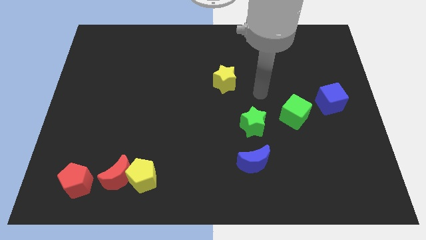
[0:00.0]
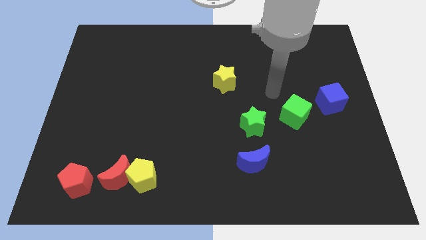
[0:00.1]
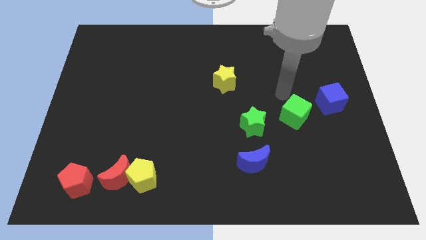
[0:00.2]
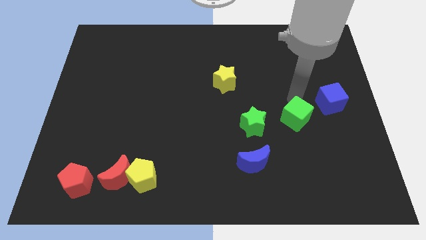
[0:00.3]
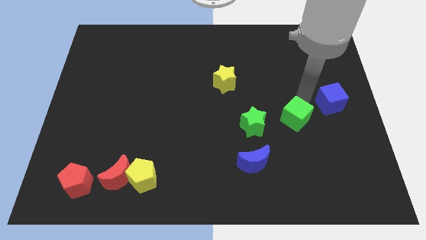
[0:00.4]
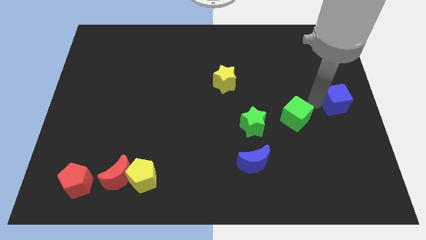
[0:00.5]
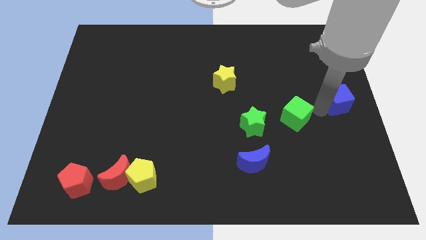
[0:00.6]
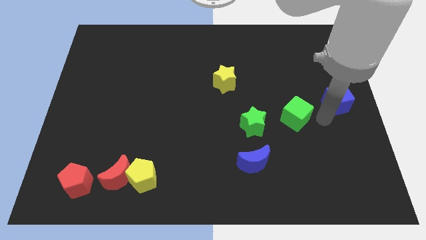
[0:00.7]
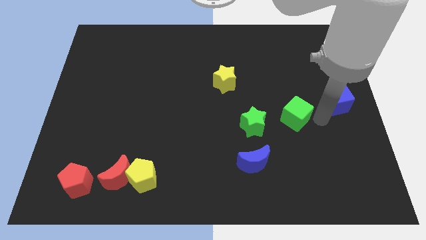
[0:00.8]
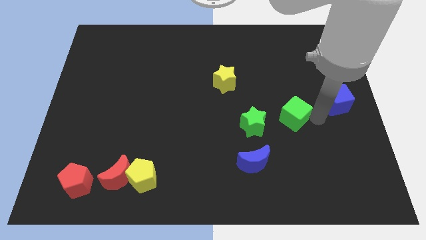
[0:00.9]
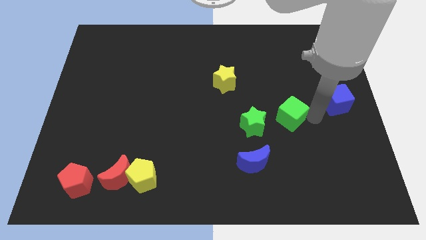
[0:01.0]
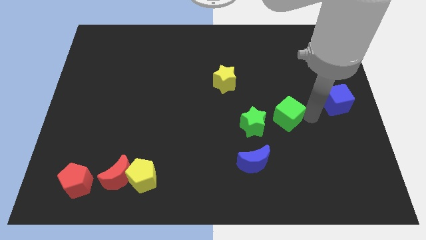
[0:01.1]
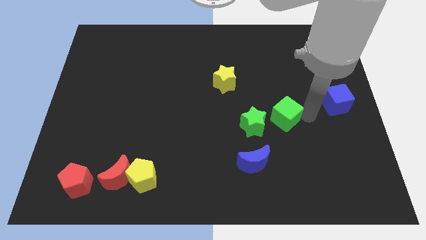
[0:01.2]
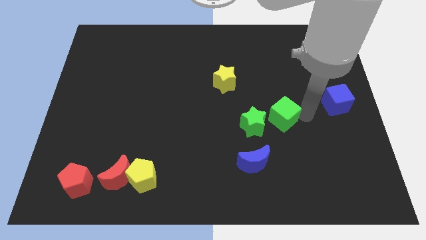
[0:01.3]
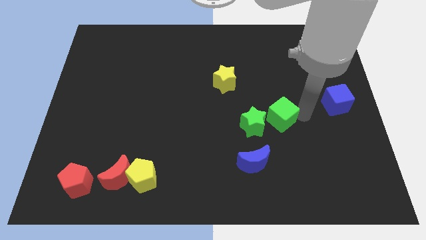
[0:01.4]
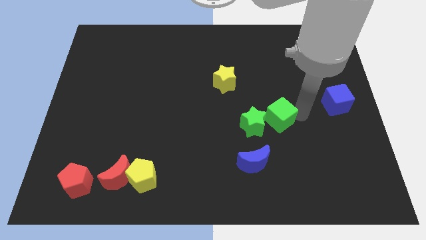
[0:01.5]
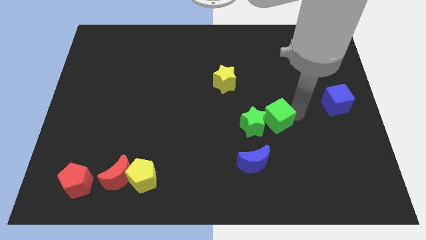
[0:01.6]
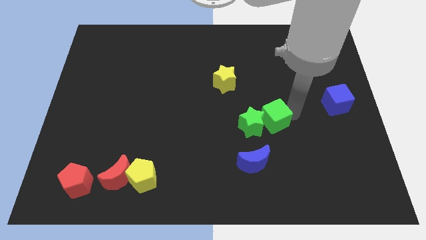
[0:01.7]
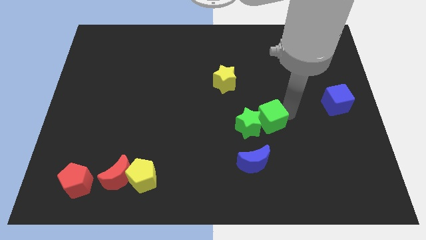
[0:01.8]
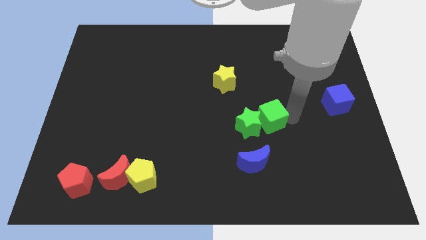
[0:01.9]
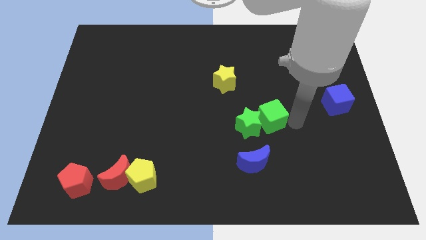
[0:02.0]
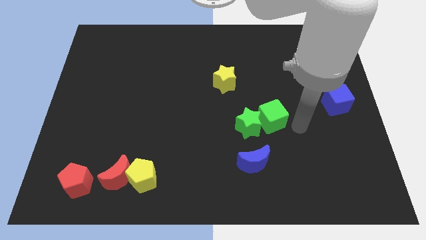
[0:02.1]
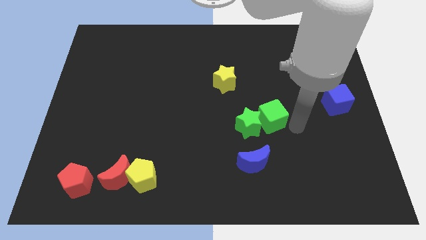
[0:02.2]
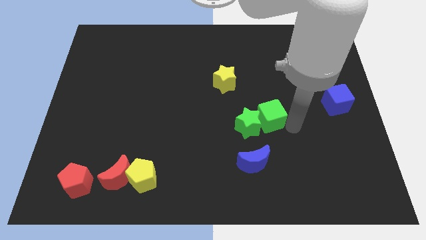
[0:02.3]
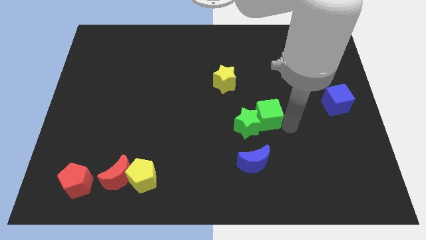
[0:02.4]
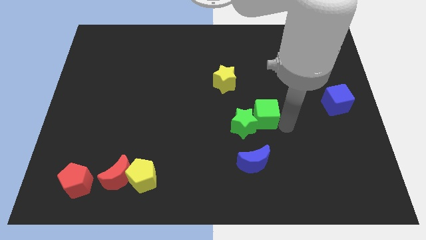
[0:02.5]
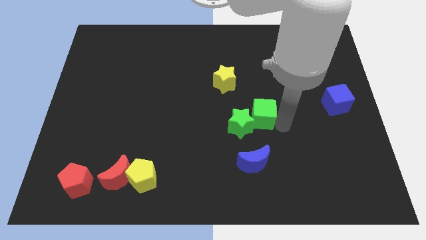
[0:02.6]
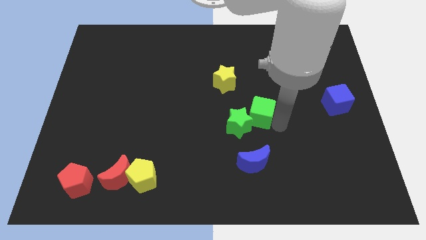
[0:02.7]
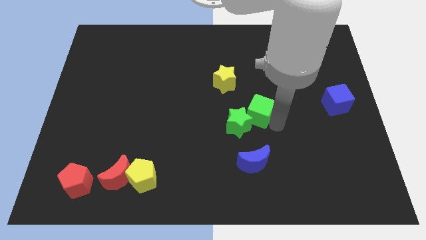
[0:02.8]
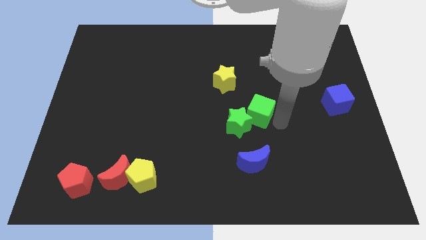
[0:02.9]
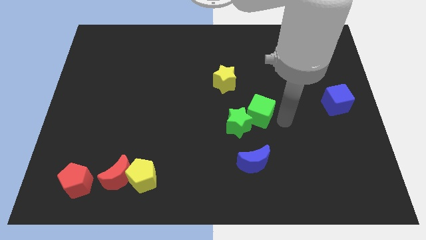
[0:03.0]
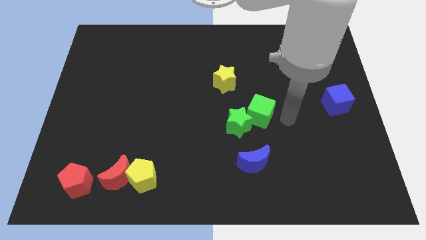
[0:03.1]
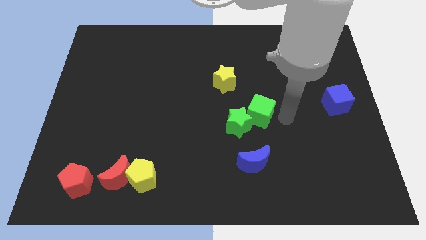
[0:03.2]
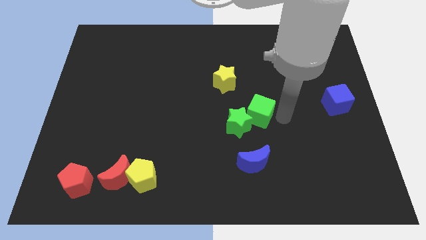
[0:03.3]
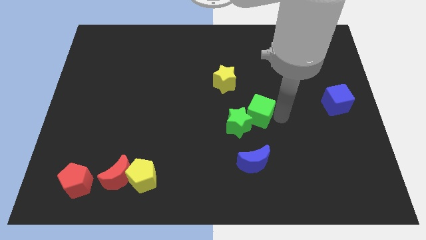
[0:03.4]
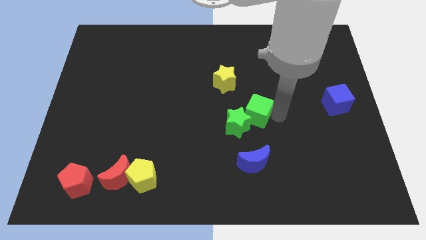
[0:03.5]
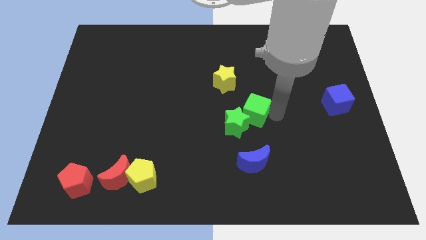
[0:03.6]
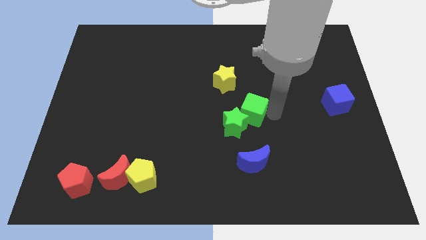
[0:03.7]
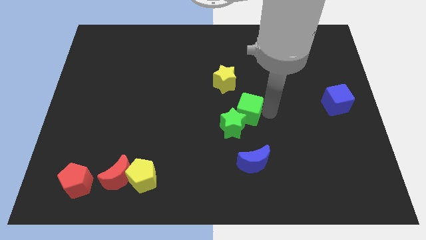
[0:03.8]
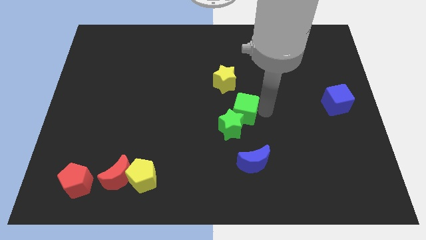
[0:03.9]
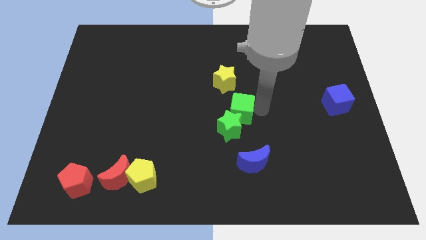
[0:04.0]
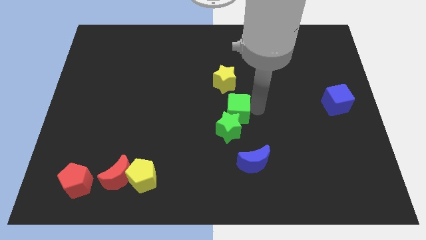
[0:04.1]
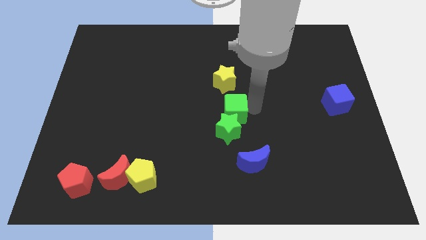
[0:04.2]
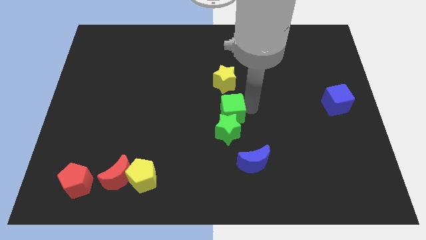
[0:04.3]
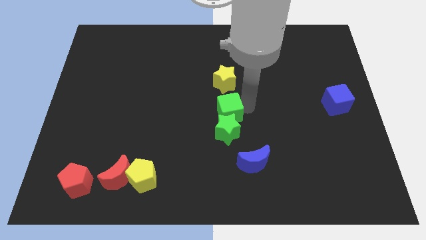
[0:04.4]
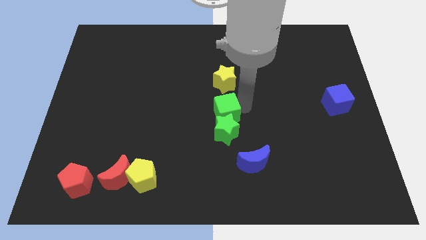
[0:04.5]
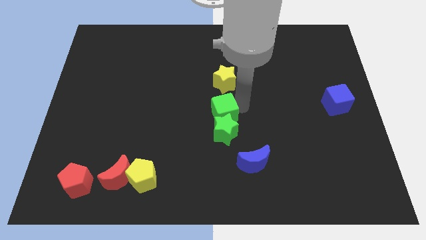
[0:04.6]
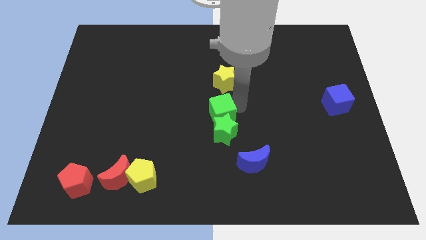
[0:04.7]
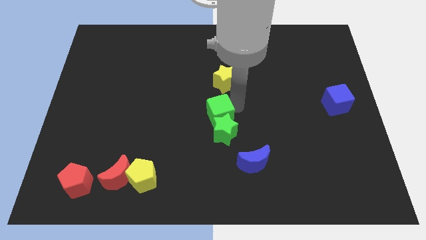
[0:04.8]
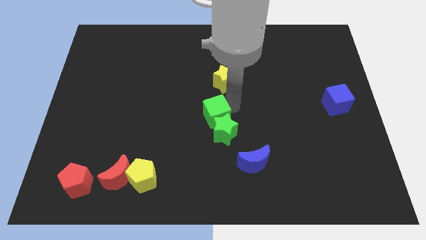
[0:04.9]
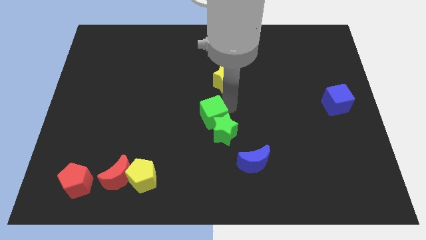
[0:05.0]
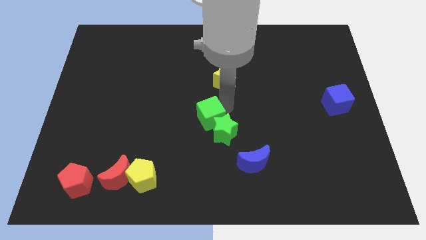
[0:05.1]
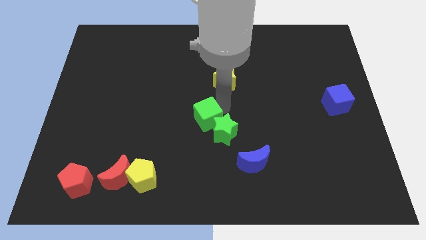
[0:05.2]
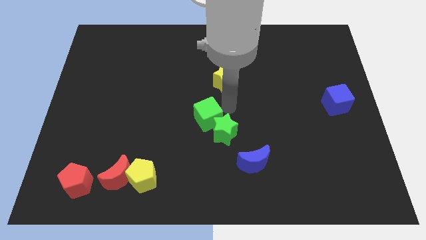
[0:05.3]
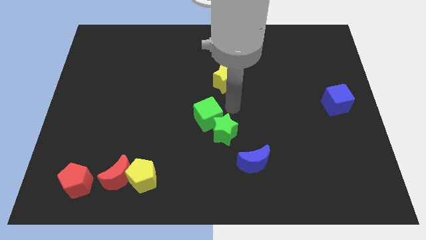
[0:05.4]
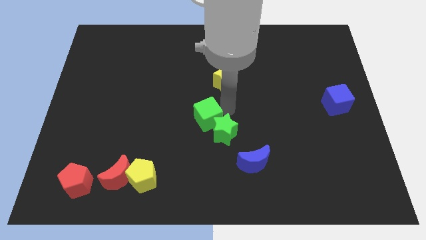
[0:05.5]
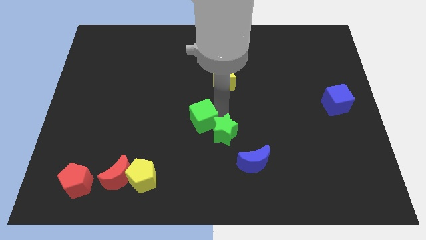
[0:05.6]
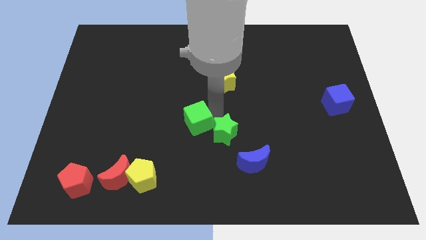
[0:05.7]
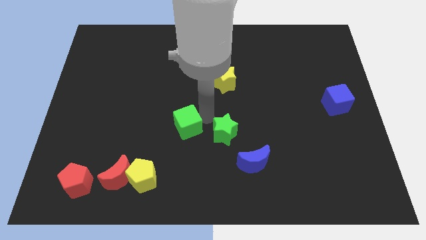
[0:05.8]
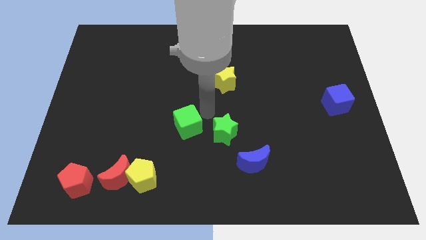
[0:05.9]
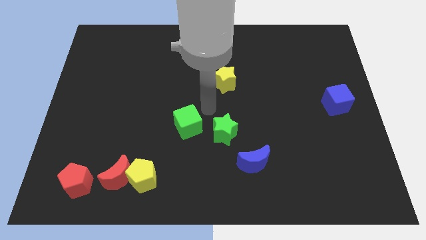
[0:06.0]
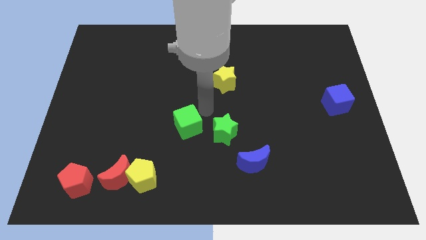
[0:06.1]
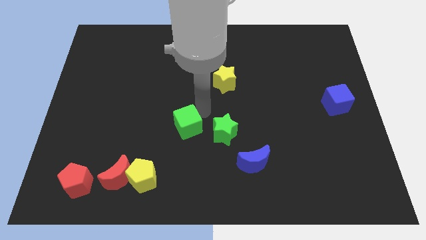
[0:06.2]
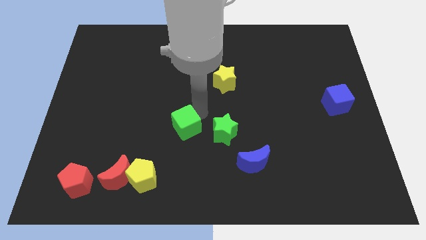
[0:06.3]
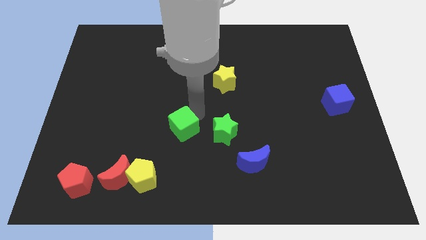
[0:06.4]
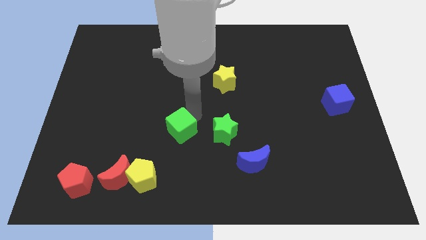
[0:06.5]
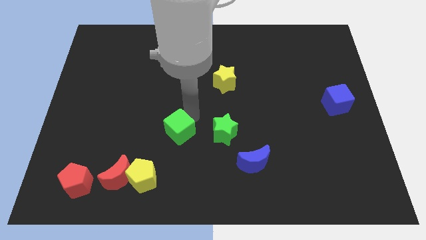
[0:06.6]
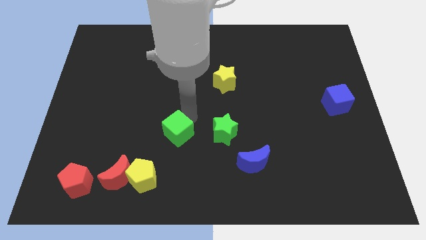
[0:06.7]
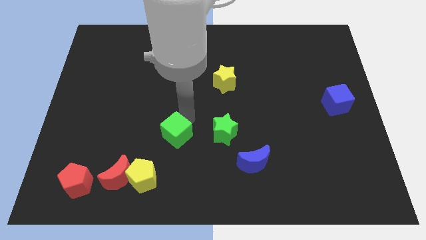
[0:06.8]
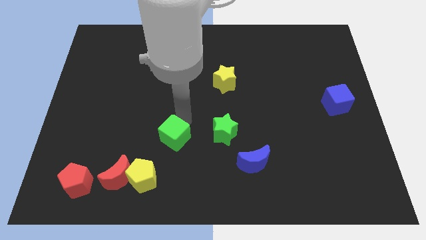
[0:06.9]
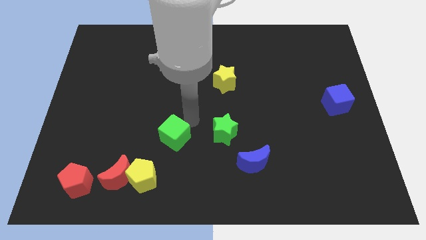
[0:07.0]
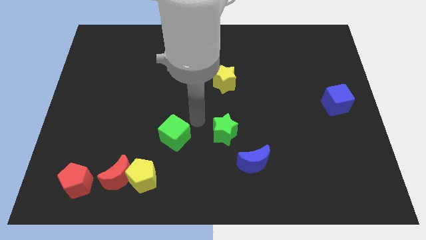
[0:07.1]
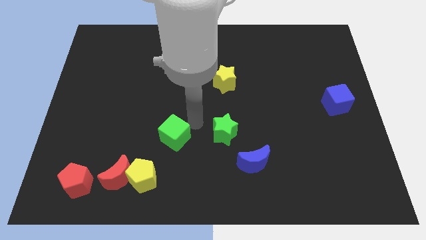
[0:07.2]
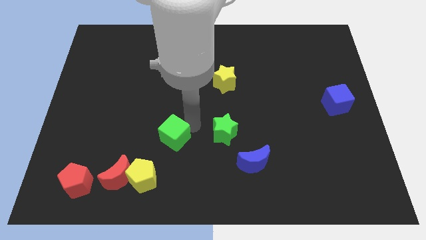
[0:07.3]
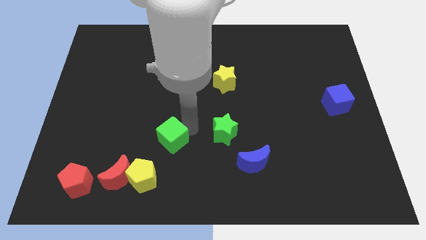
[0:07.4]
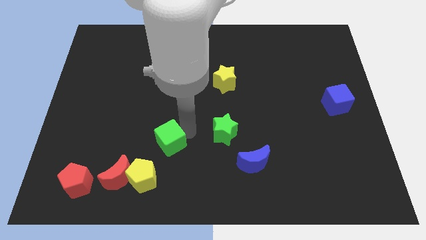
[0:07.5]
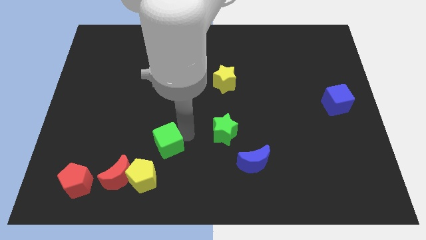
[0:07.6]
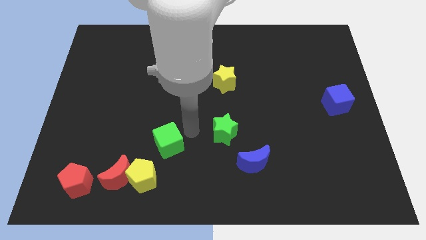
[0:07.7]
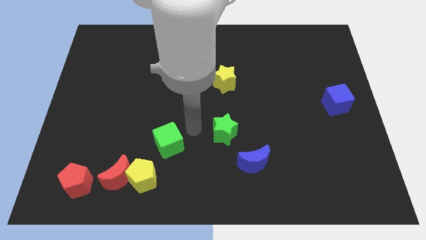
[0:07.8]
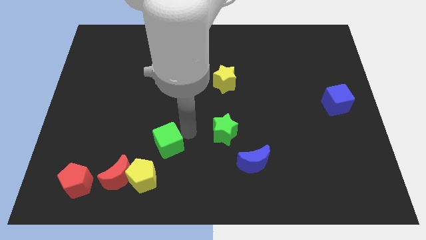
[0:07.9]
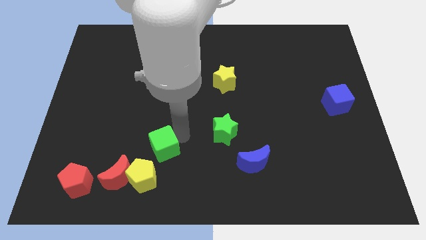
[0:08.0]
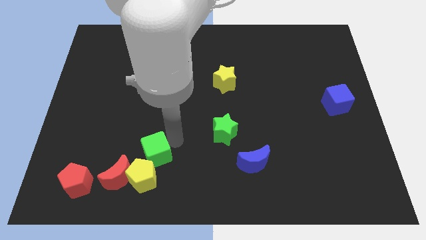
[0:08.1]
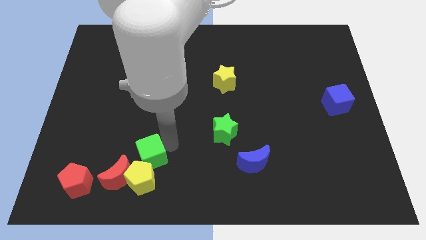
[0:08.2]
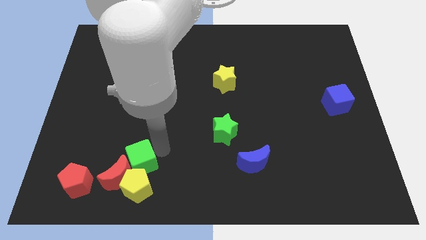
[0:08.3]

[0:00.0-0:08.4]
push the green cube towards the red moon
